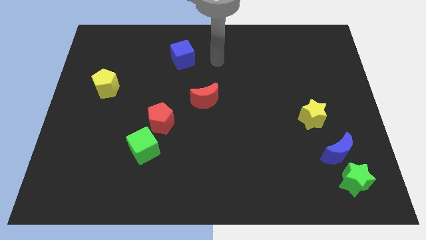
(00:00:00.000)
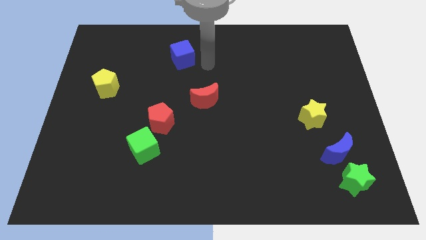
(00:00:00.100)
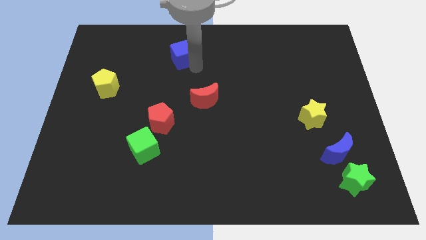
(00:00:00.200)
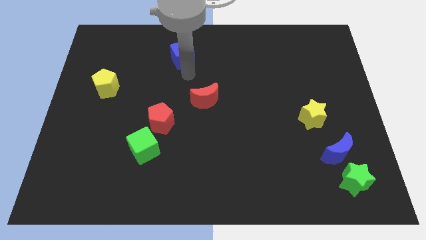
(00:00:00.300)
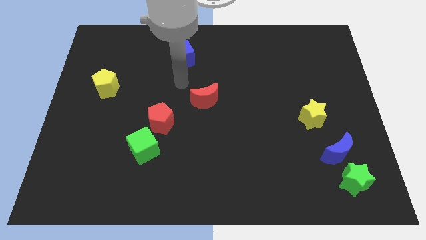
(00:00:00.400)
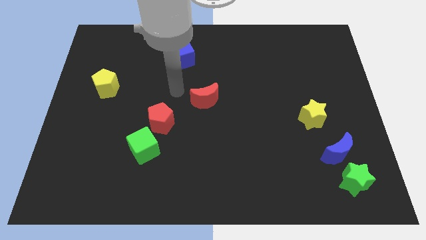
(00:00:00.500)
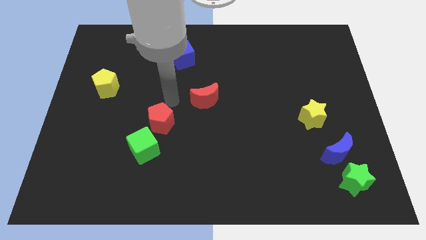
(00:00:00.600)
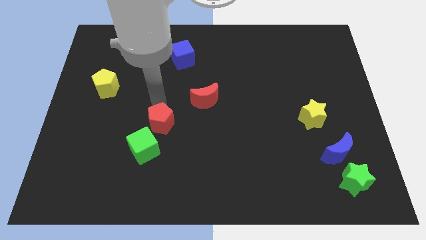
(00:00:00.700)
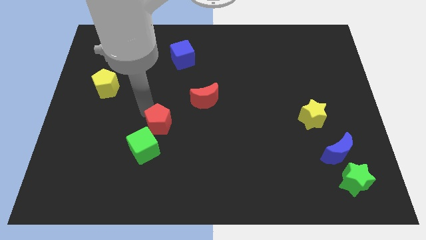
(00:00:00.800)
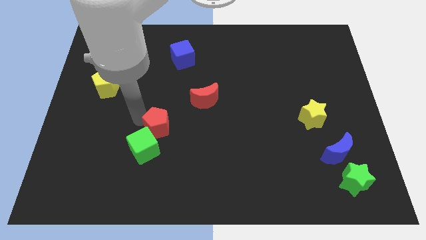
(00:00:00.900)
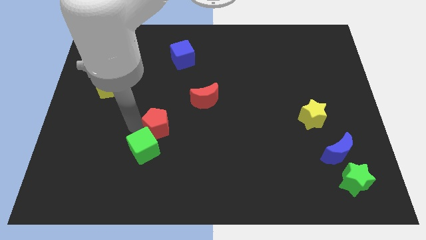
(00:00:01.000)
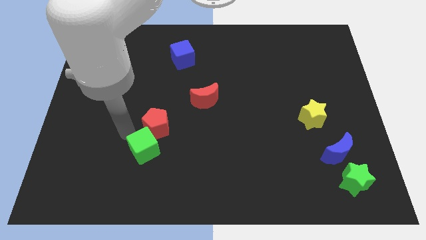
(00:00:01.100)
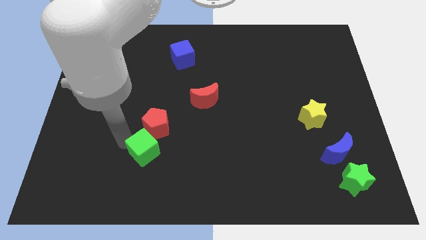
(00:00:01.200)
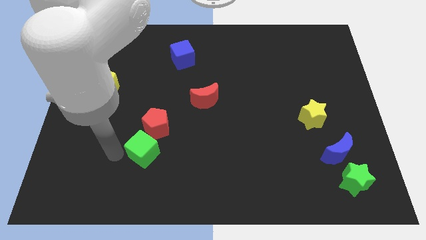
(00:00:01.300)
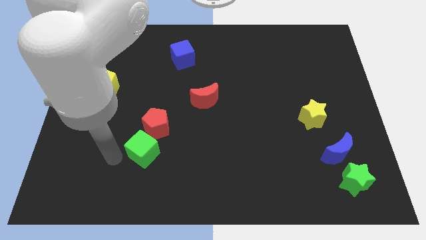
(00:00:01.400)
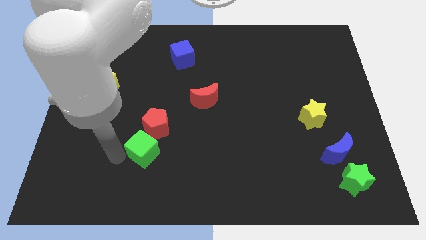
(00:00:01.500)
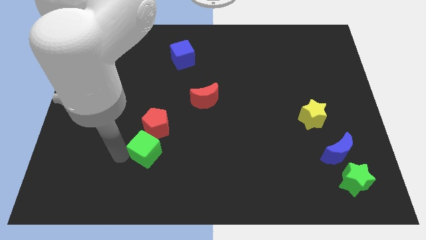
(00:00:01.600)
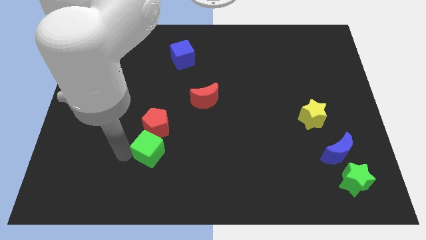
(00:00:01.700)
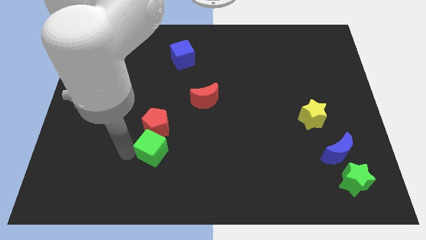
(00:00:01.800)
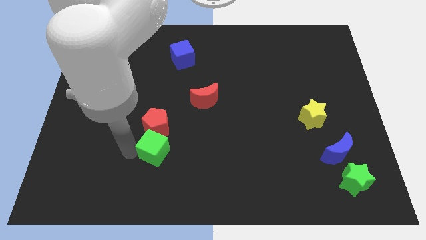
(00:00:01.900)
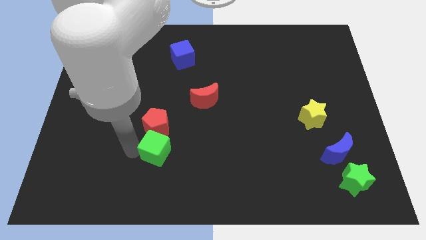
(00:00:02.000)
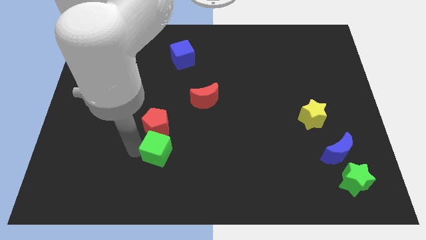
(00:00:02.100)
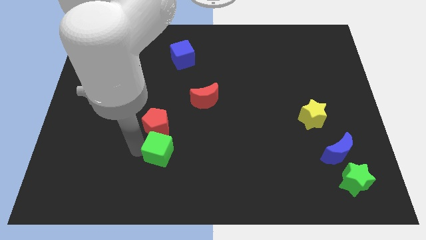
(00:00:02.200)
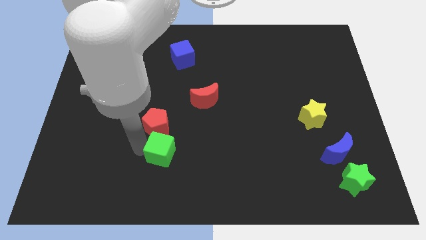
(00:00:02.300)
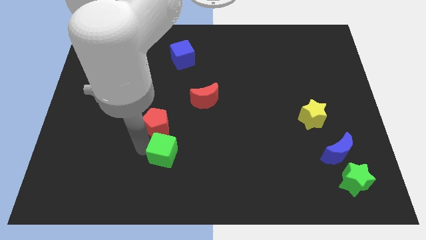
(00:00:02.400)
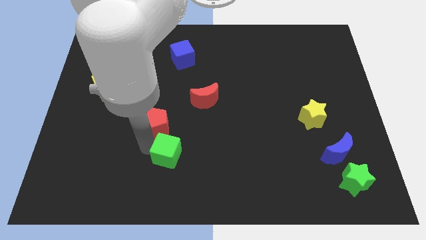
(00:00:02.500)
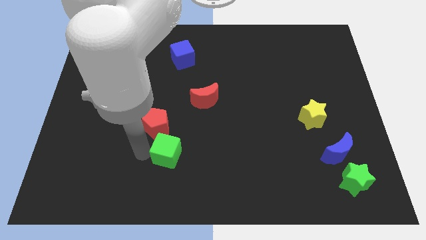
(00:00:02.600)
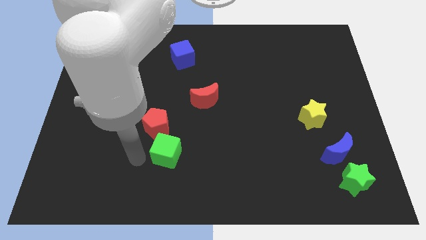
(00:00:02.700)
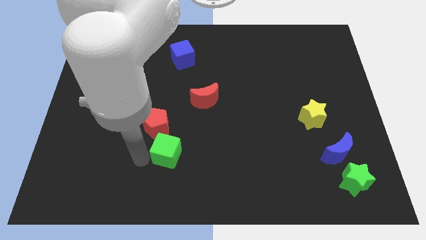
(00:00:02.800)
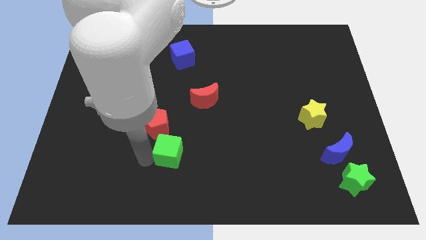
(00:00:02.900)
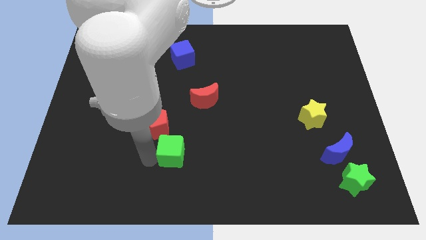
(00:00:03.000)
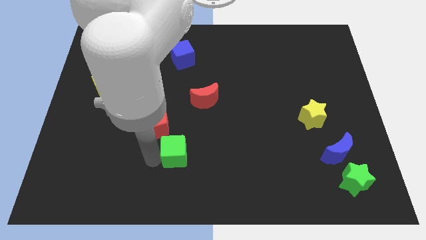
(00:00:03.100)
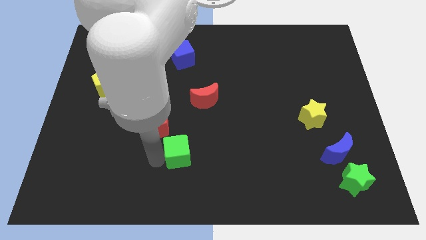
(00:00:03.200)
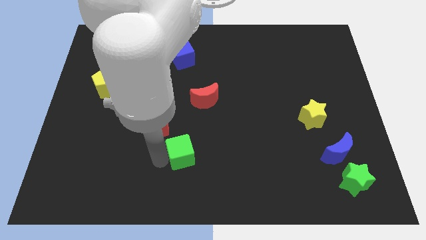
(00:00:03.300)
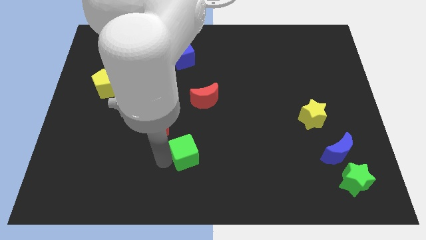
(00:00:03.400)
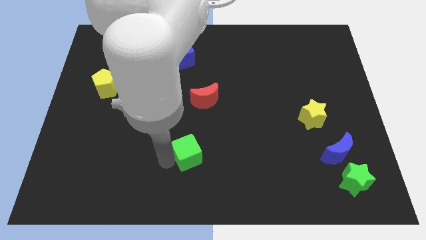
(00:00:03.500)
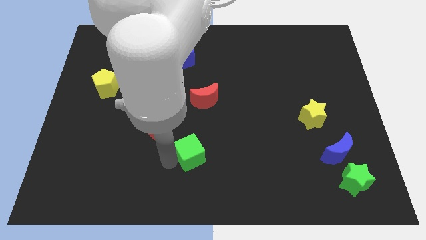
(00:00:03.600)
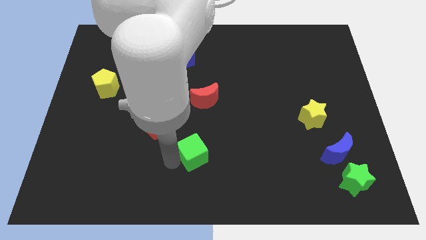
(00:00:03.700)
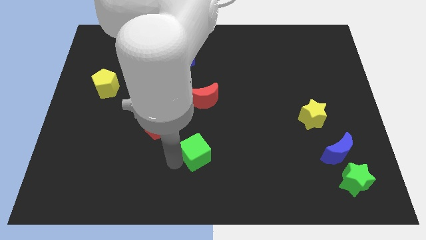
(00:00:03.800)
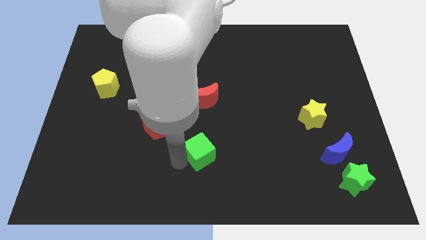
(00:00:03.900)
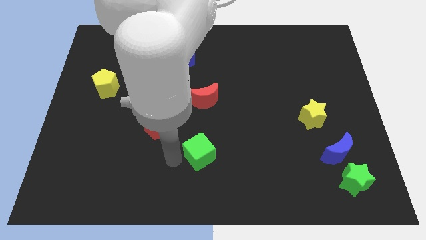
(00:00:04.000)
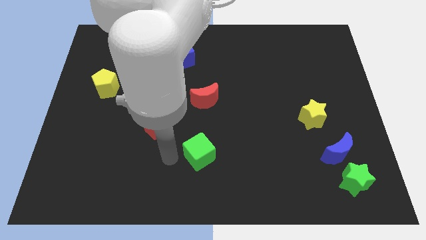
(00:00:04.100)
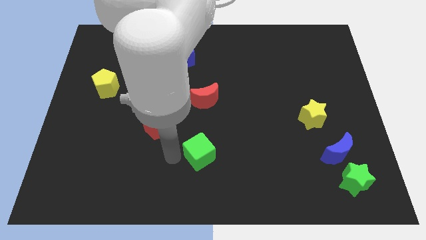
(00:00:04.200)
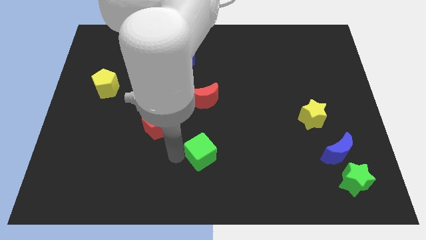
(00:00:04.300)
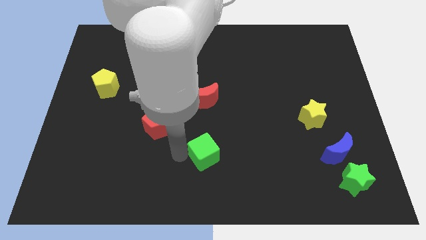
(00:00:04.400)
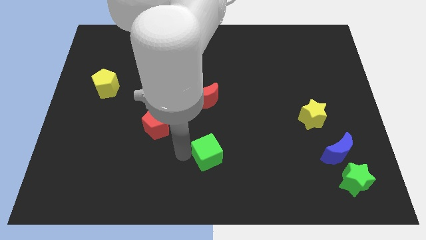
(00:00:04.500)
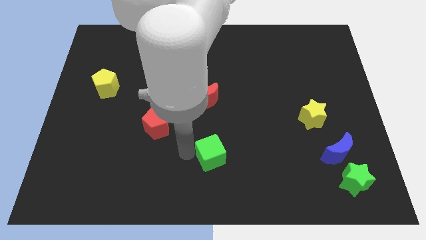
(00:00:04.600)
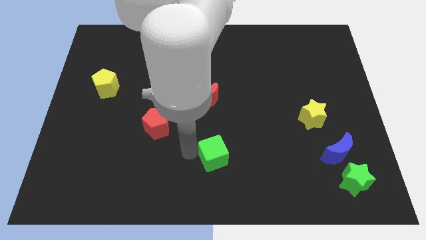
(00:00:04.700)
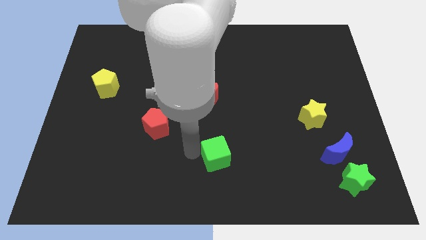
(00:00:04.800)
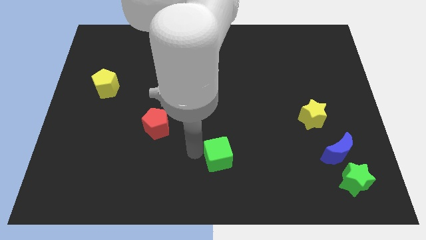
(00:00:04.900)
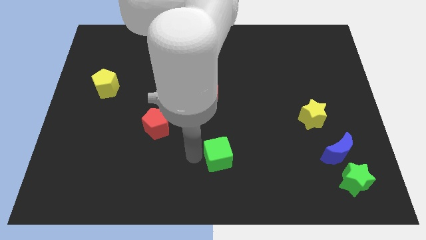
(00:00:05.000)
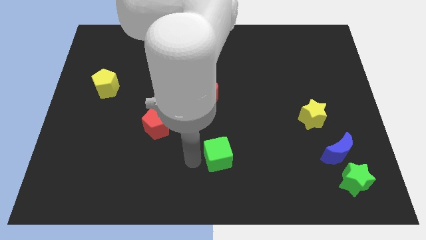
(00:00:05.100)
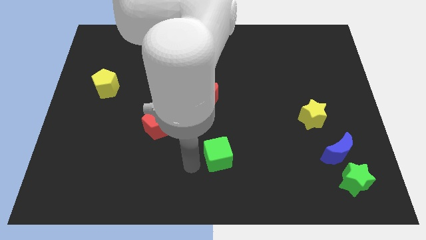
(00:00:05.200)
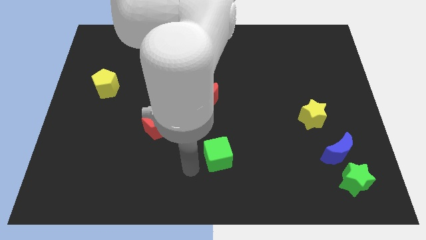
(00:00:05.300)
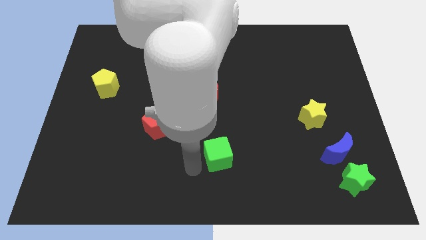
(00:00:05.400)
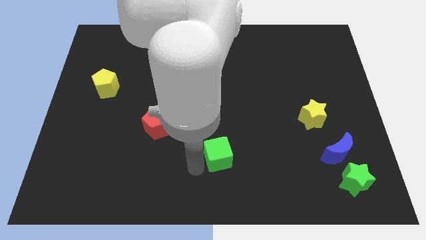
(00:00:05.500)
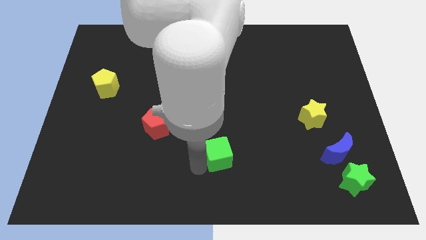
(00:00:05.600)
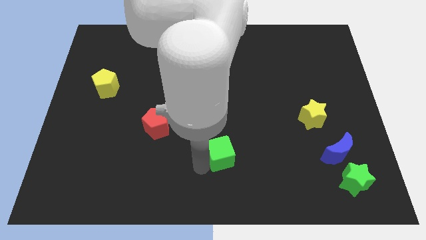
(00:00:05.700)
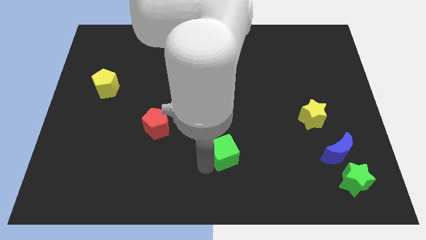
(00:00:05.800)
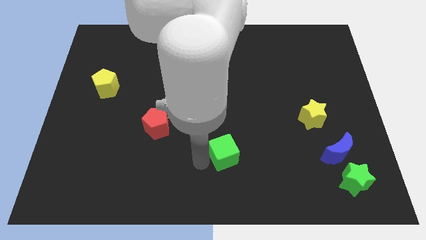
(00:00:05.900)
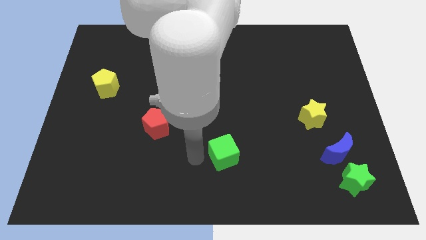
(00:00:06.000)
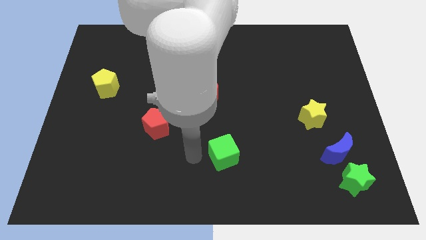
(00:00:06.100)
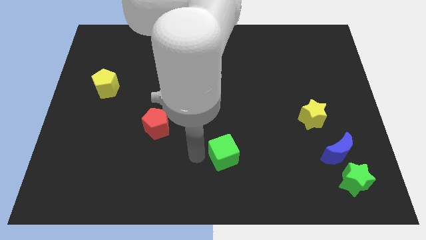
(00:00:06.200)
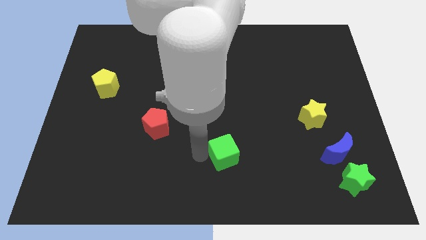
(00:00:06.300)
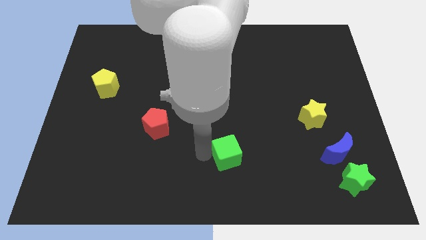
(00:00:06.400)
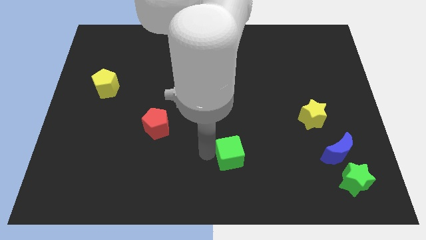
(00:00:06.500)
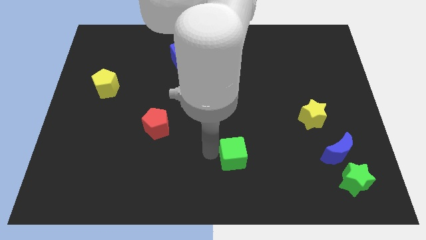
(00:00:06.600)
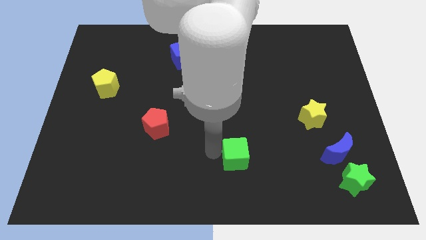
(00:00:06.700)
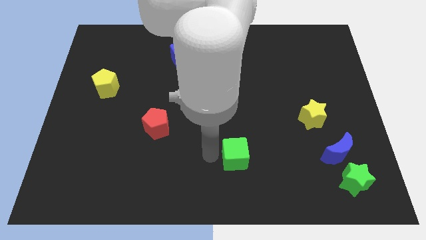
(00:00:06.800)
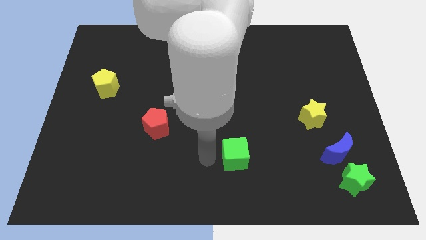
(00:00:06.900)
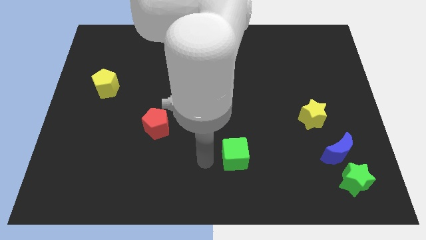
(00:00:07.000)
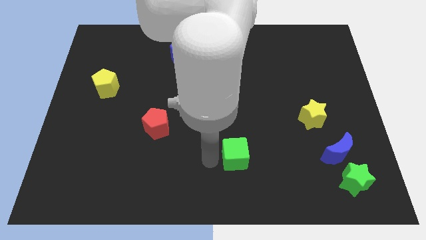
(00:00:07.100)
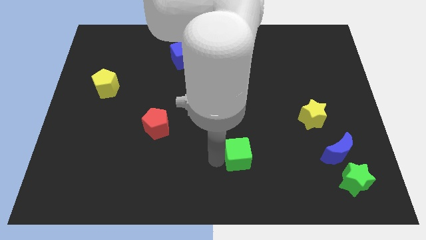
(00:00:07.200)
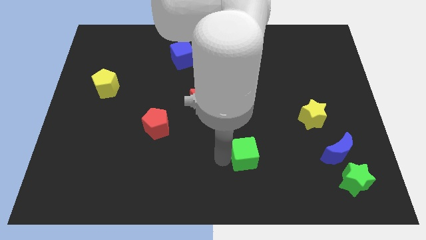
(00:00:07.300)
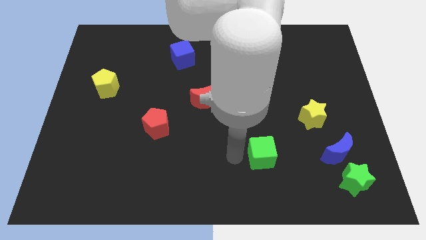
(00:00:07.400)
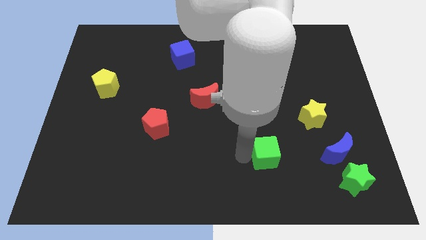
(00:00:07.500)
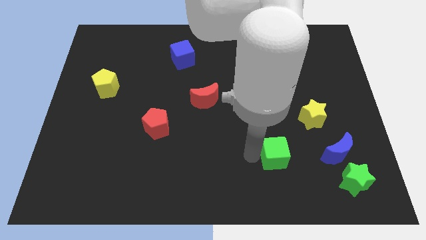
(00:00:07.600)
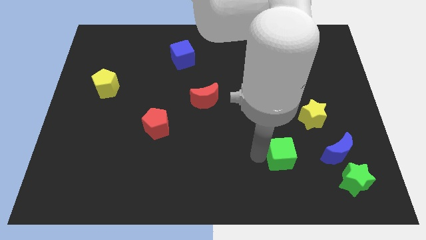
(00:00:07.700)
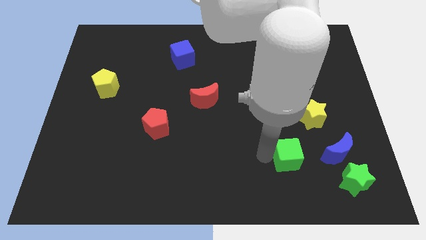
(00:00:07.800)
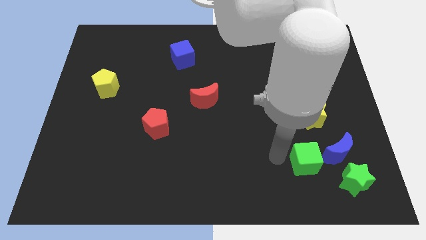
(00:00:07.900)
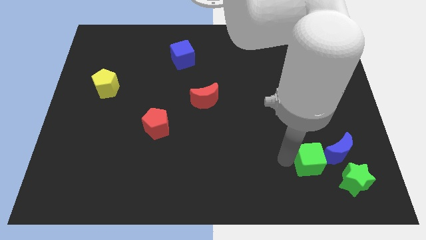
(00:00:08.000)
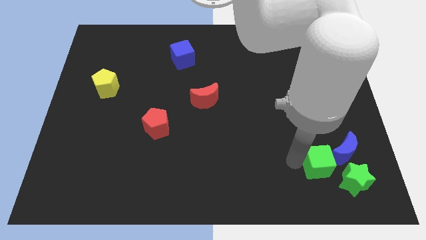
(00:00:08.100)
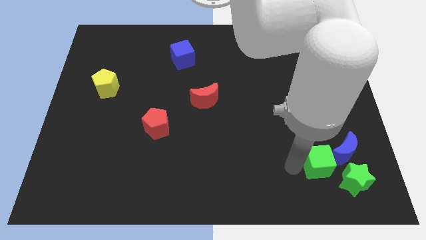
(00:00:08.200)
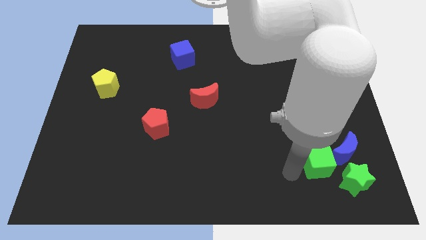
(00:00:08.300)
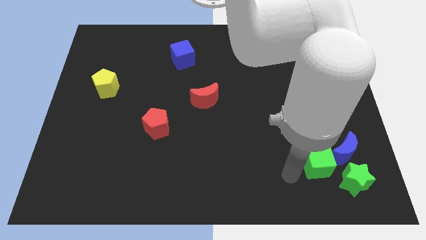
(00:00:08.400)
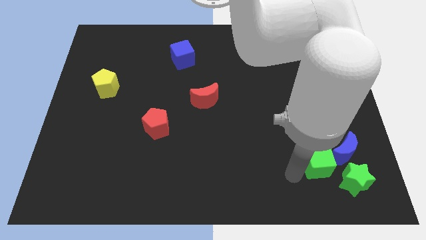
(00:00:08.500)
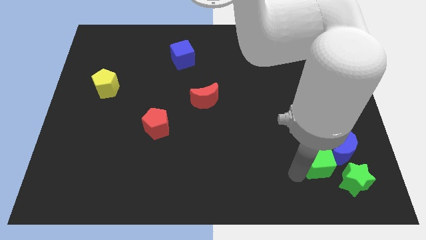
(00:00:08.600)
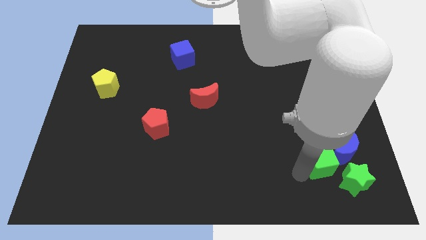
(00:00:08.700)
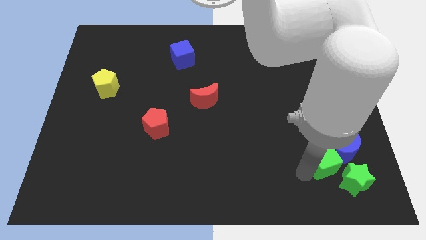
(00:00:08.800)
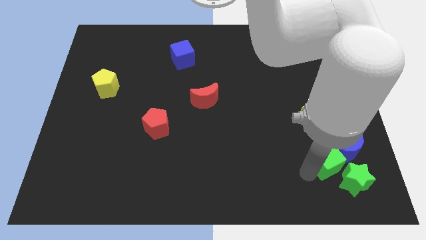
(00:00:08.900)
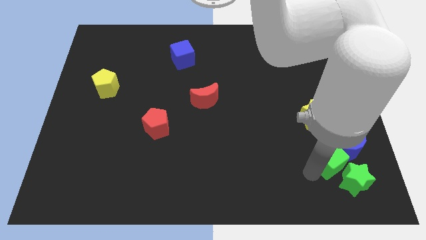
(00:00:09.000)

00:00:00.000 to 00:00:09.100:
slide the green cube to the blue moon
